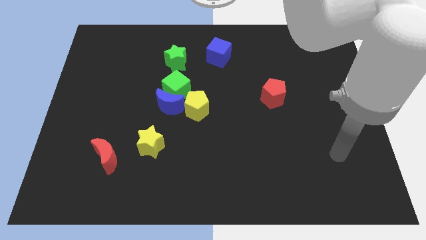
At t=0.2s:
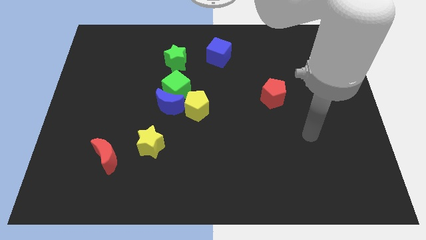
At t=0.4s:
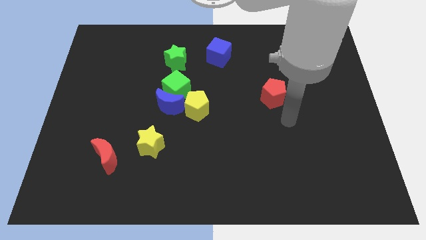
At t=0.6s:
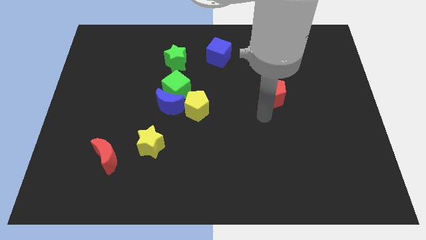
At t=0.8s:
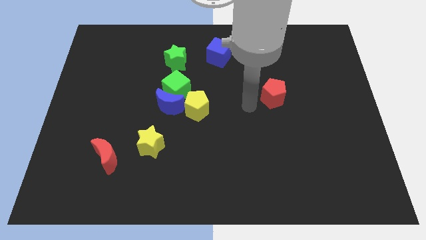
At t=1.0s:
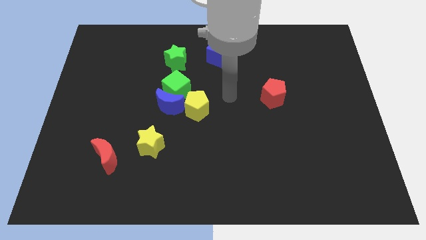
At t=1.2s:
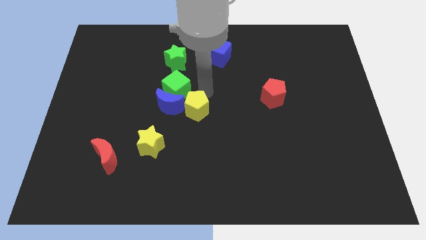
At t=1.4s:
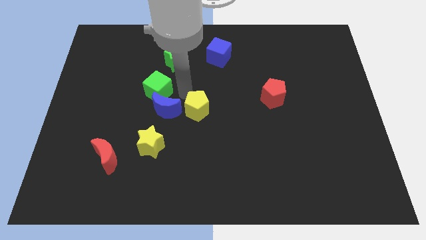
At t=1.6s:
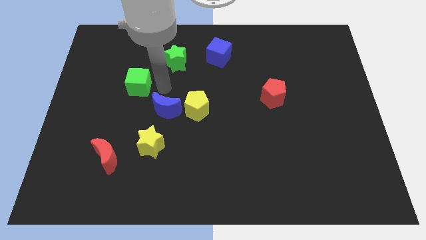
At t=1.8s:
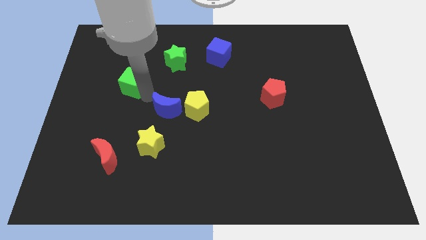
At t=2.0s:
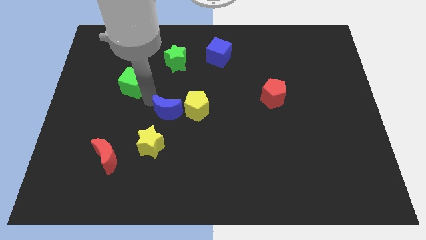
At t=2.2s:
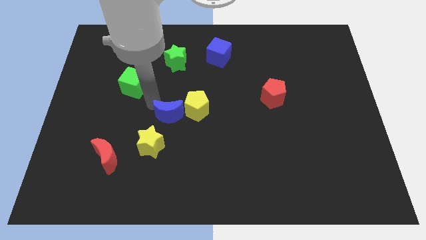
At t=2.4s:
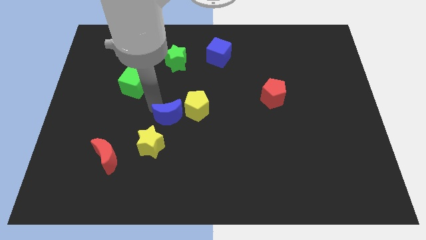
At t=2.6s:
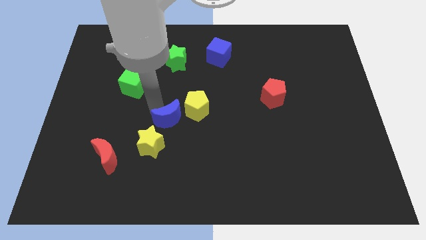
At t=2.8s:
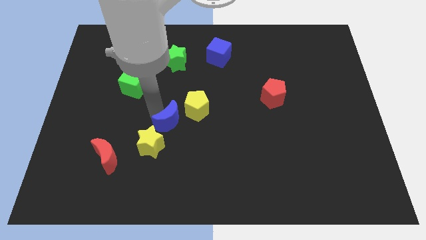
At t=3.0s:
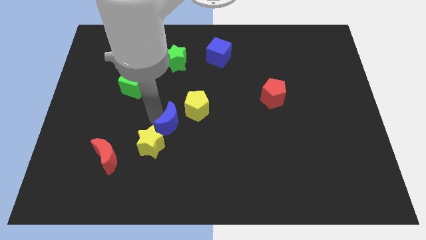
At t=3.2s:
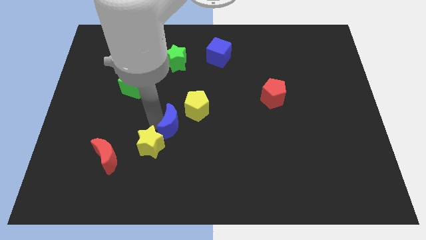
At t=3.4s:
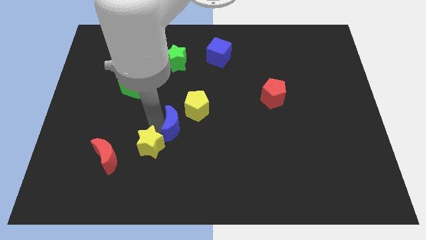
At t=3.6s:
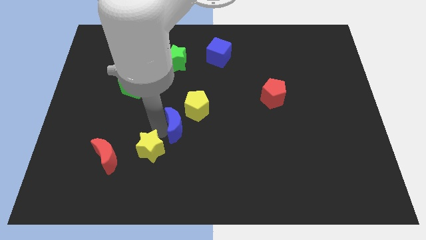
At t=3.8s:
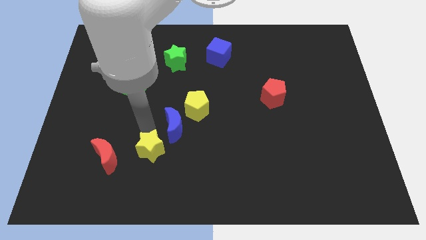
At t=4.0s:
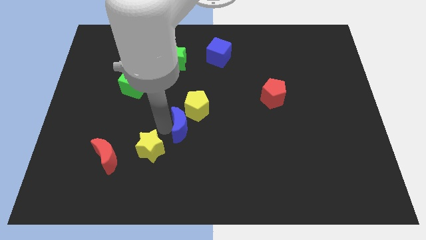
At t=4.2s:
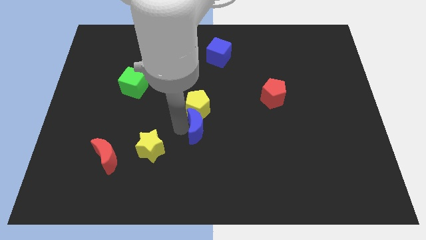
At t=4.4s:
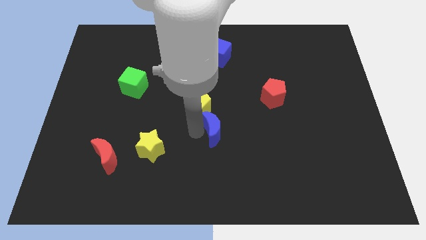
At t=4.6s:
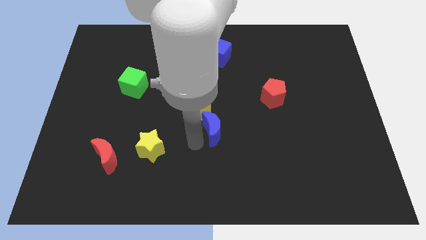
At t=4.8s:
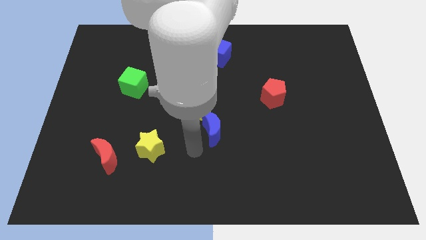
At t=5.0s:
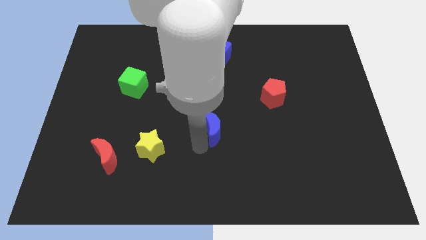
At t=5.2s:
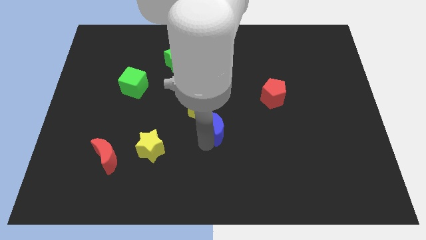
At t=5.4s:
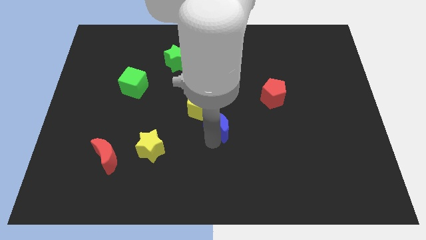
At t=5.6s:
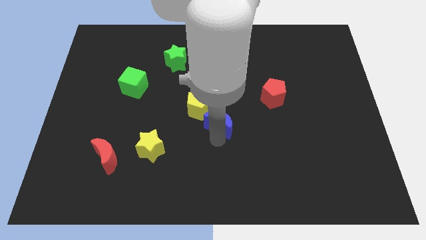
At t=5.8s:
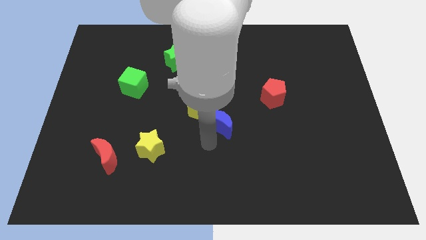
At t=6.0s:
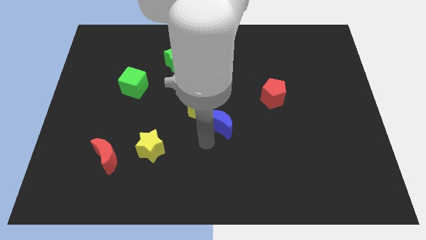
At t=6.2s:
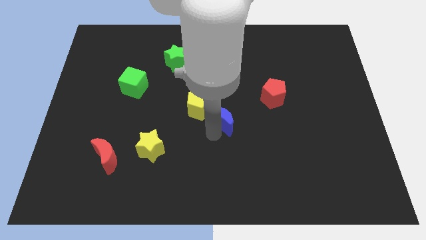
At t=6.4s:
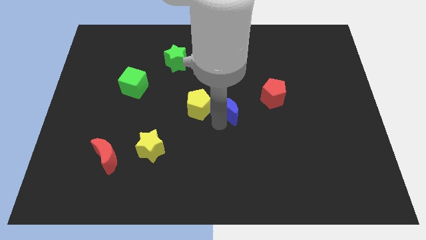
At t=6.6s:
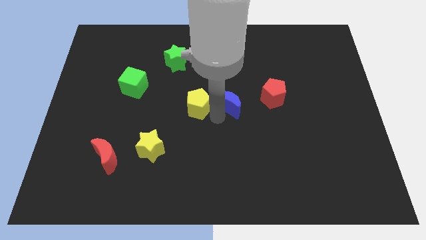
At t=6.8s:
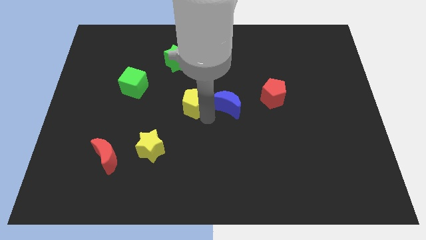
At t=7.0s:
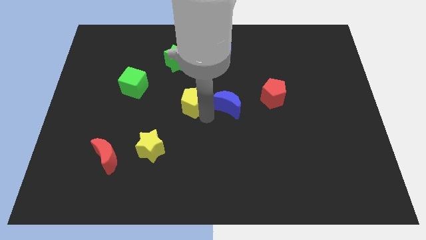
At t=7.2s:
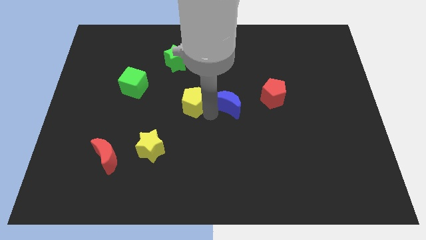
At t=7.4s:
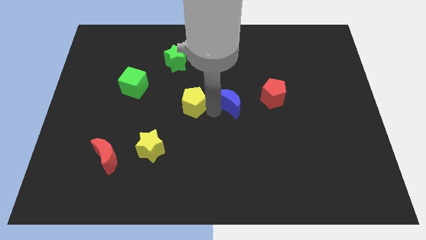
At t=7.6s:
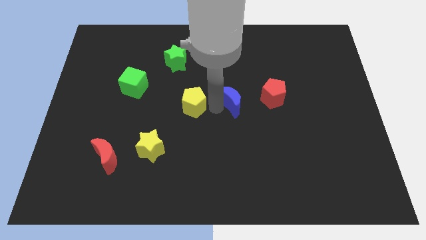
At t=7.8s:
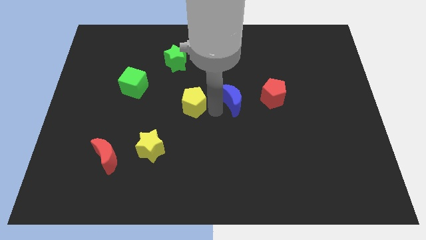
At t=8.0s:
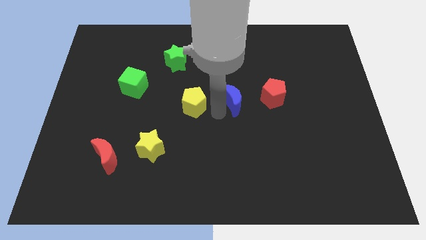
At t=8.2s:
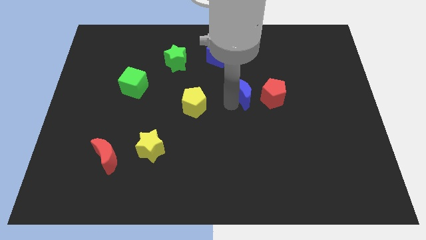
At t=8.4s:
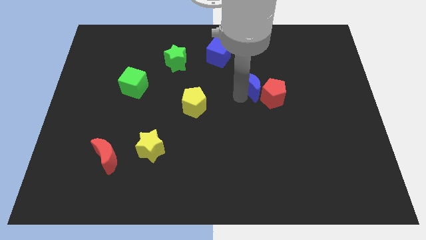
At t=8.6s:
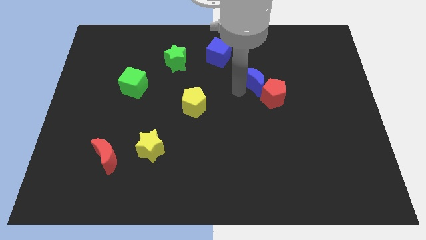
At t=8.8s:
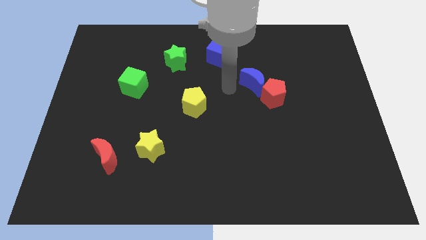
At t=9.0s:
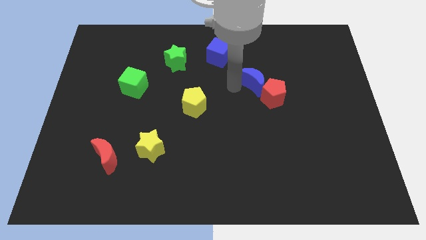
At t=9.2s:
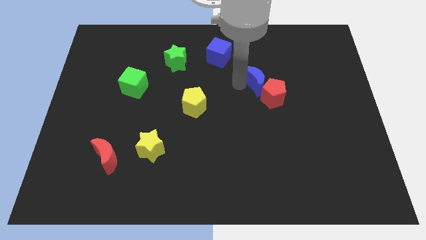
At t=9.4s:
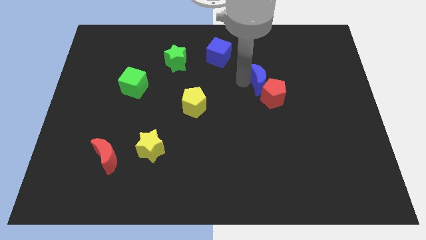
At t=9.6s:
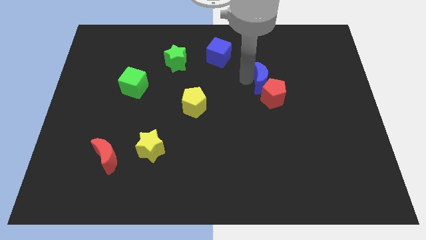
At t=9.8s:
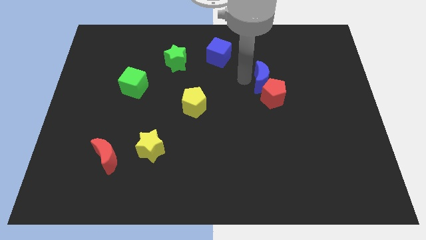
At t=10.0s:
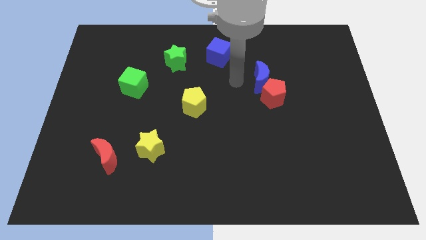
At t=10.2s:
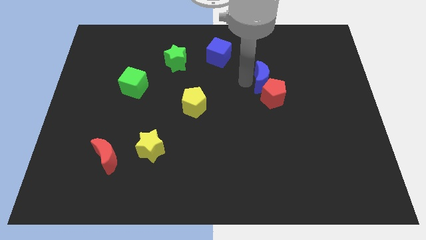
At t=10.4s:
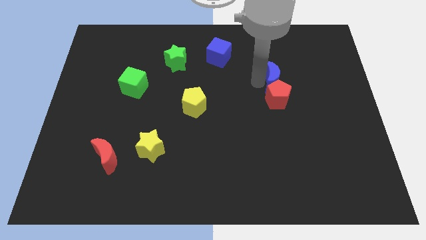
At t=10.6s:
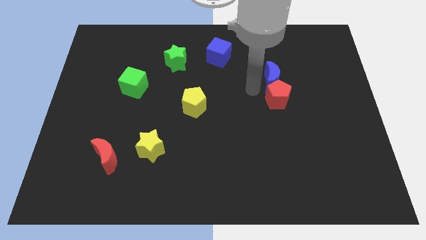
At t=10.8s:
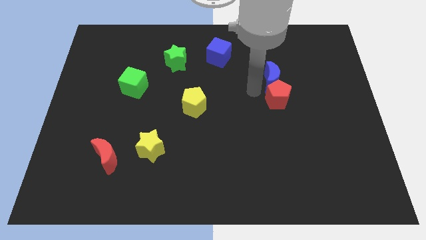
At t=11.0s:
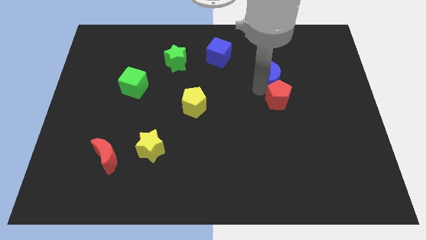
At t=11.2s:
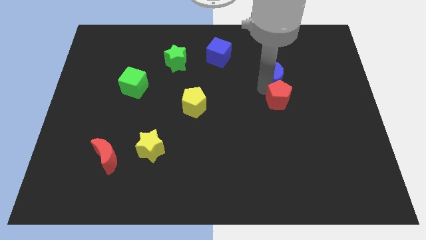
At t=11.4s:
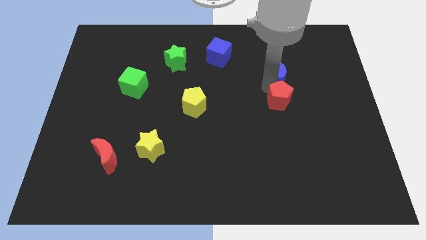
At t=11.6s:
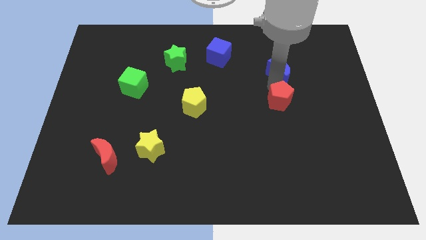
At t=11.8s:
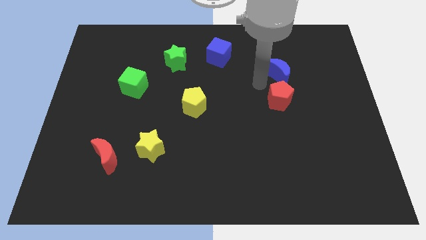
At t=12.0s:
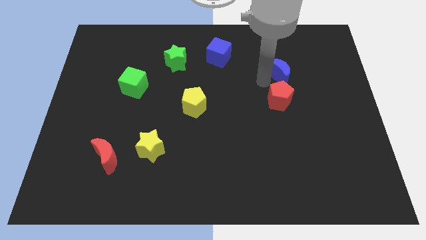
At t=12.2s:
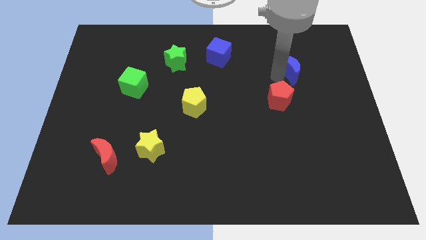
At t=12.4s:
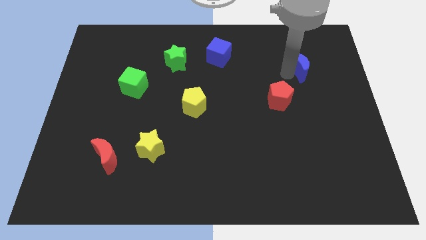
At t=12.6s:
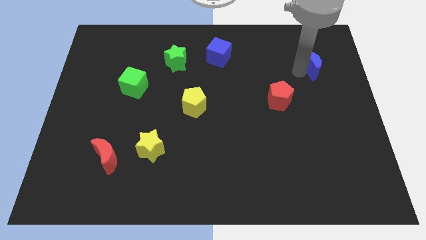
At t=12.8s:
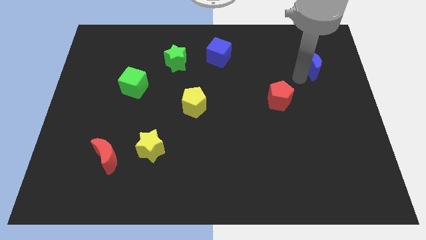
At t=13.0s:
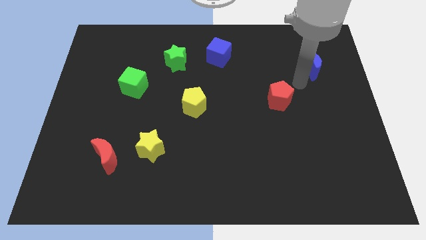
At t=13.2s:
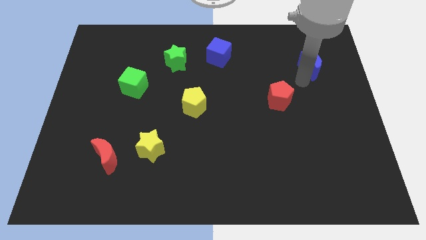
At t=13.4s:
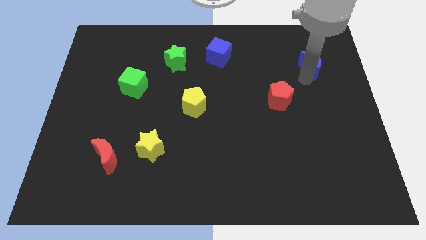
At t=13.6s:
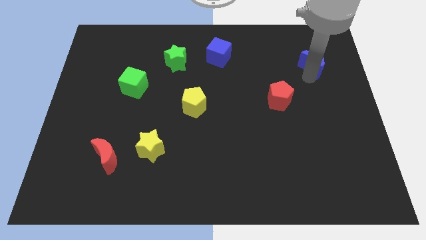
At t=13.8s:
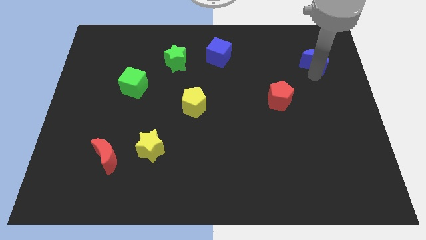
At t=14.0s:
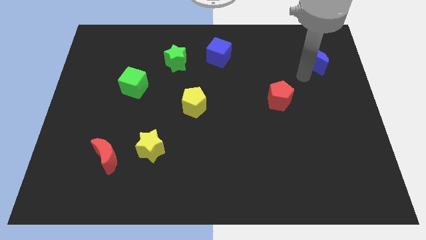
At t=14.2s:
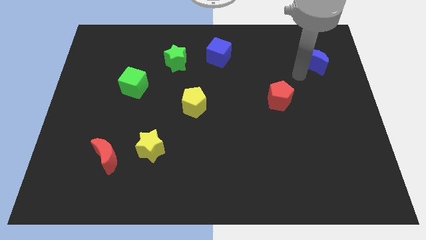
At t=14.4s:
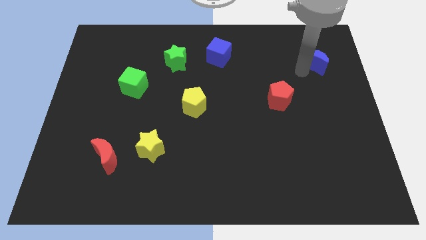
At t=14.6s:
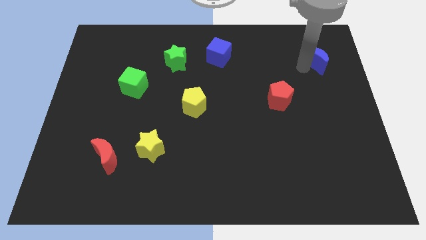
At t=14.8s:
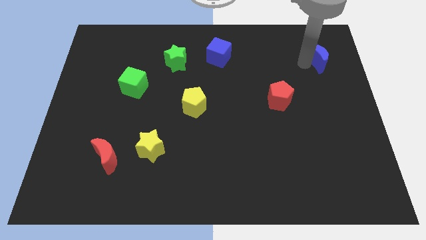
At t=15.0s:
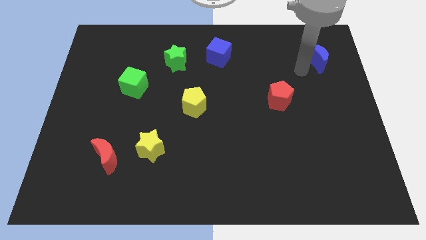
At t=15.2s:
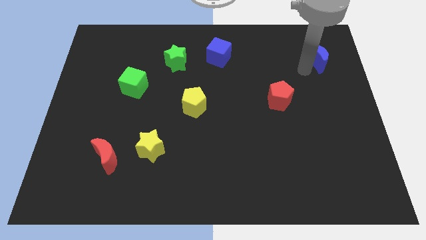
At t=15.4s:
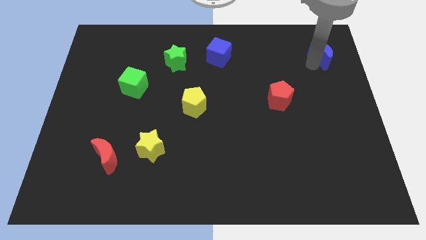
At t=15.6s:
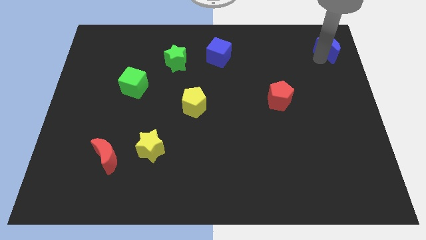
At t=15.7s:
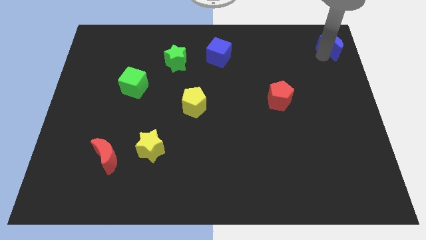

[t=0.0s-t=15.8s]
slide the blue moon to the top right of the board
